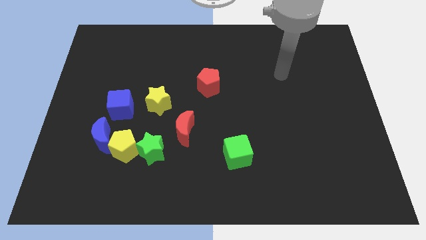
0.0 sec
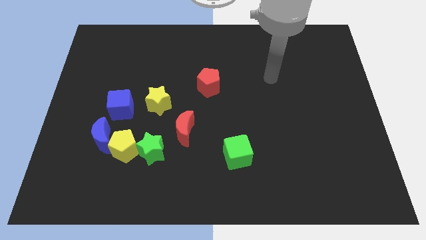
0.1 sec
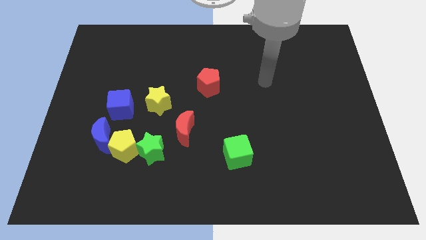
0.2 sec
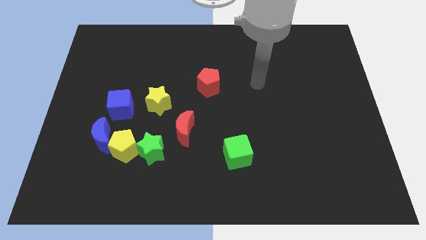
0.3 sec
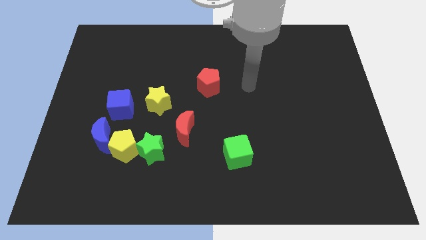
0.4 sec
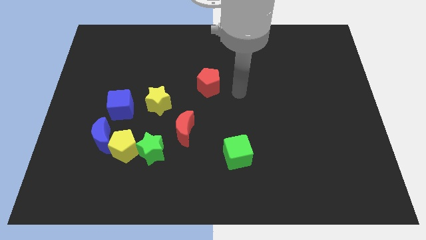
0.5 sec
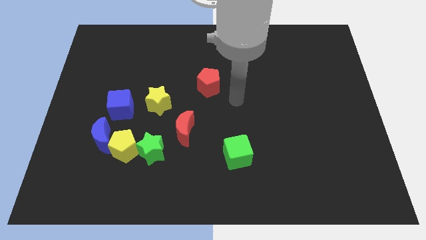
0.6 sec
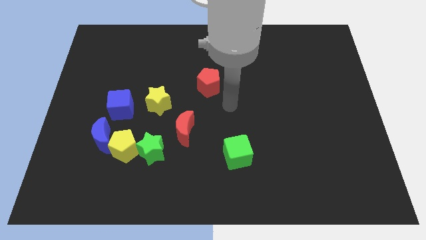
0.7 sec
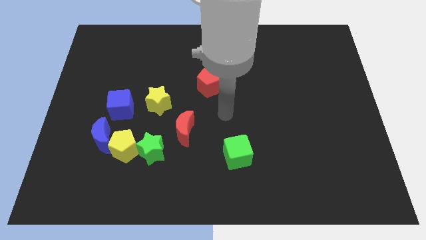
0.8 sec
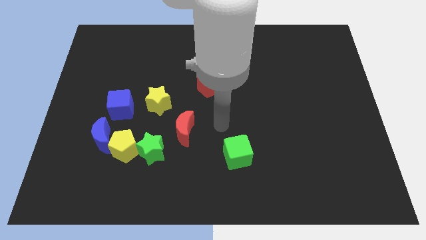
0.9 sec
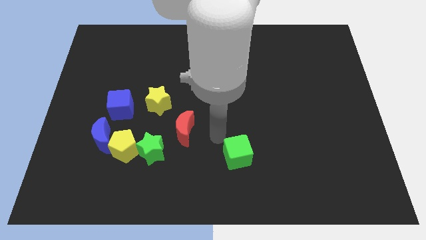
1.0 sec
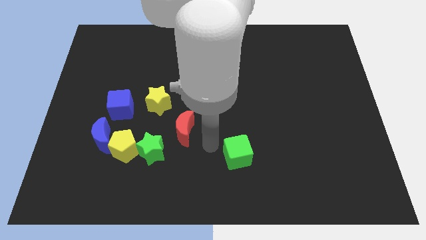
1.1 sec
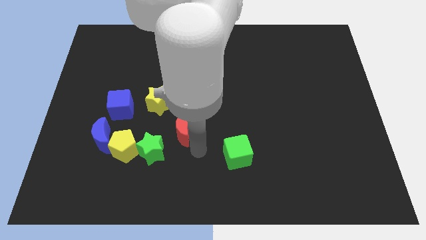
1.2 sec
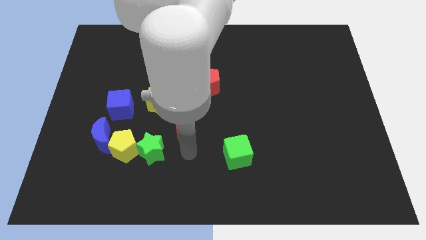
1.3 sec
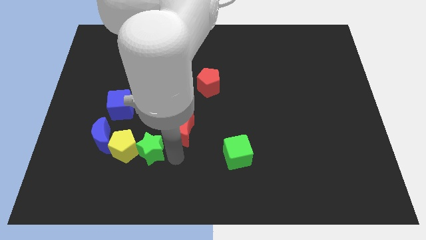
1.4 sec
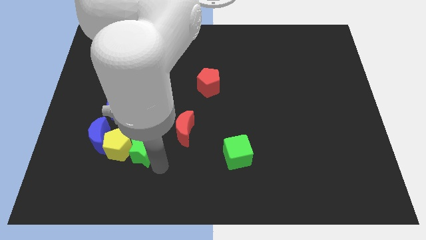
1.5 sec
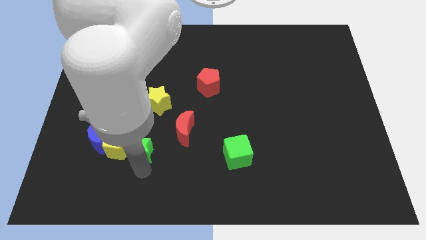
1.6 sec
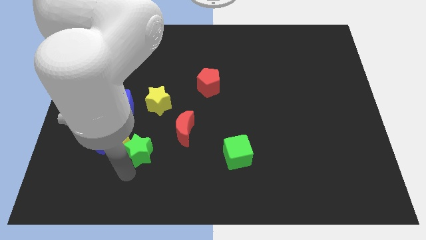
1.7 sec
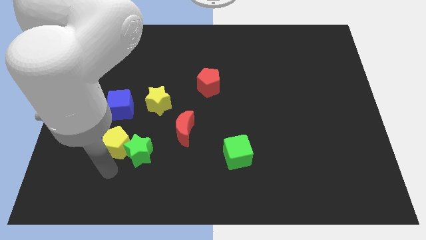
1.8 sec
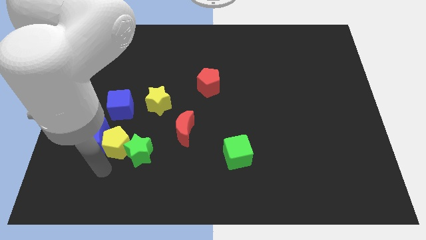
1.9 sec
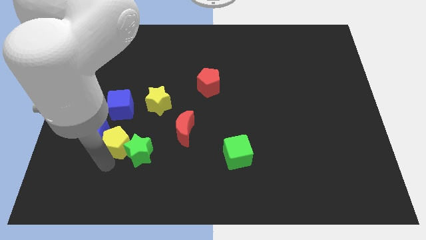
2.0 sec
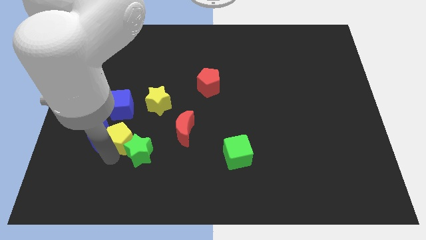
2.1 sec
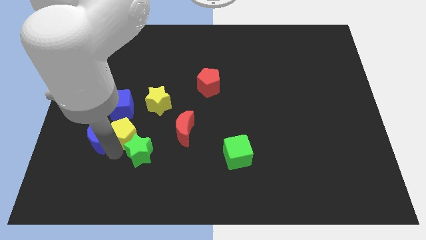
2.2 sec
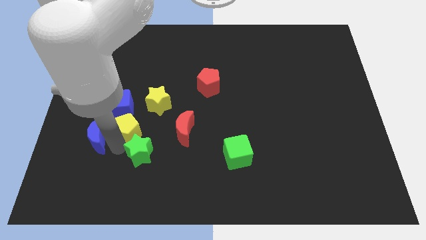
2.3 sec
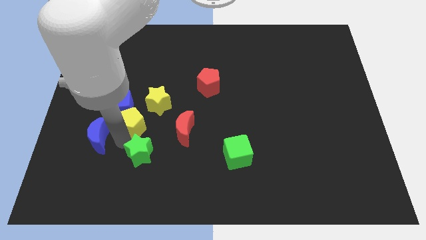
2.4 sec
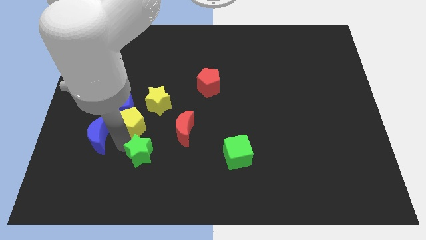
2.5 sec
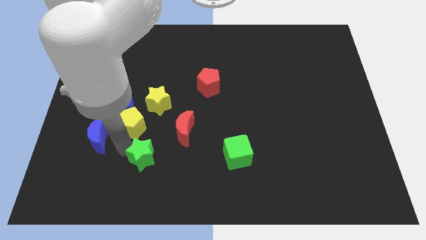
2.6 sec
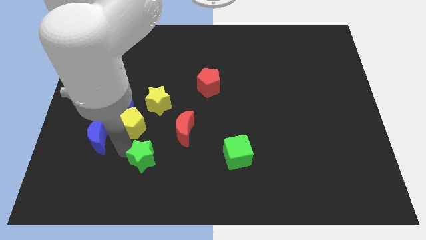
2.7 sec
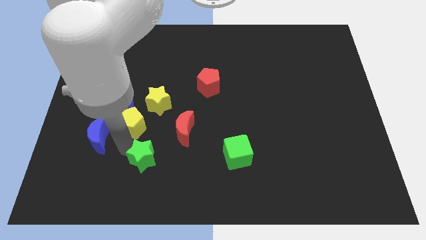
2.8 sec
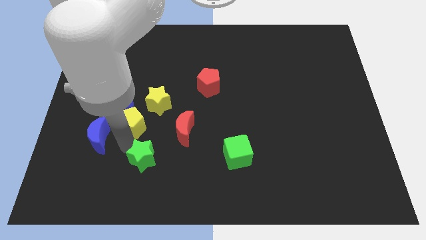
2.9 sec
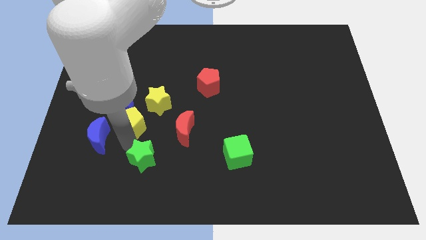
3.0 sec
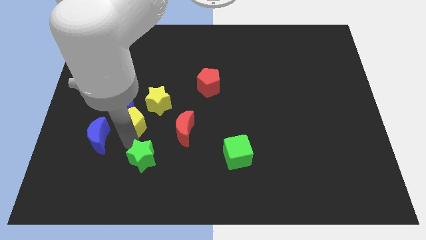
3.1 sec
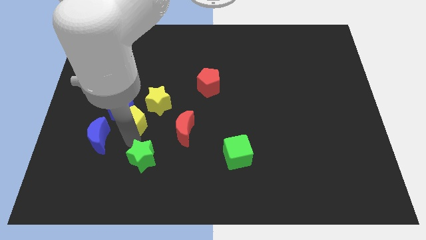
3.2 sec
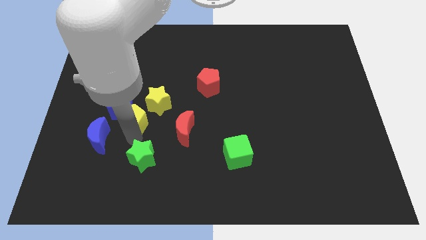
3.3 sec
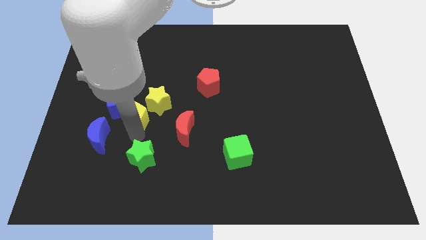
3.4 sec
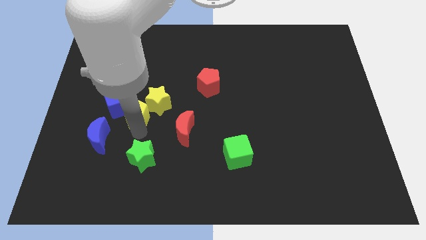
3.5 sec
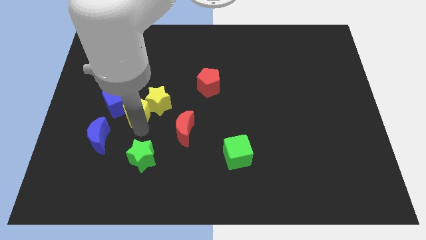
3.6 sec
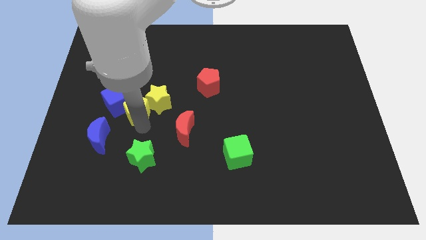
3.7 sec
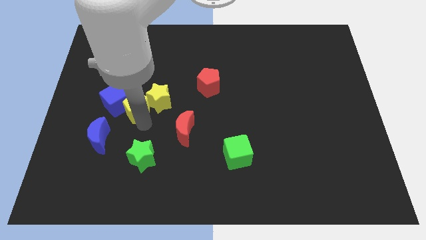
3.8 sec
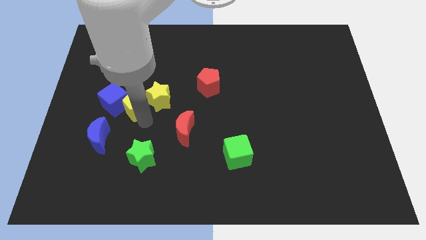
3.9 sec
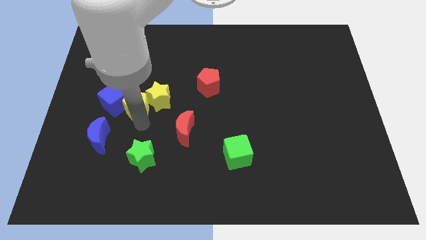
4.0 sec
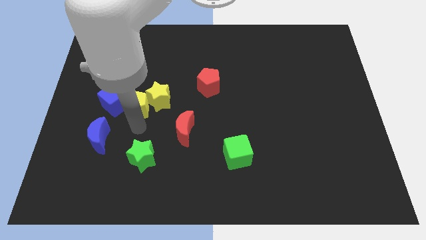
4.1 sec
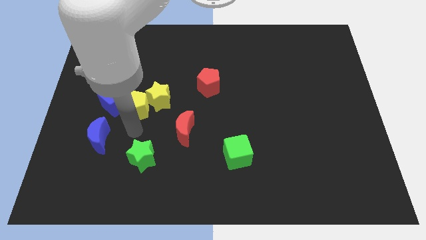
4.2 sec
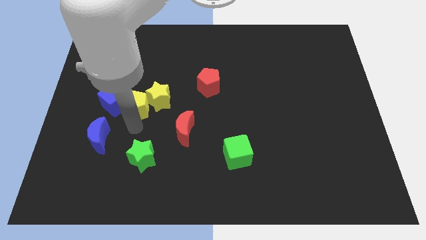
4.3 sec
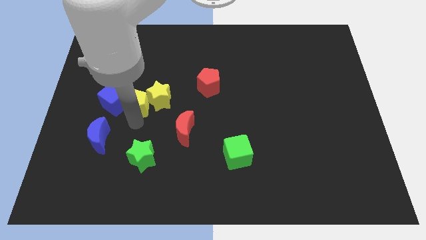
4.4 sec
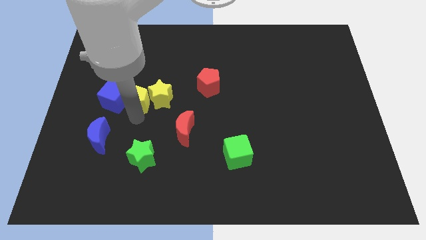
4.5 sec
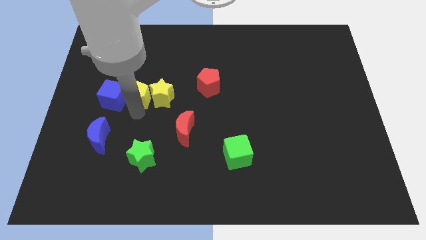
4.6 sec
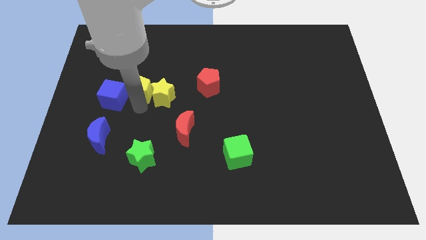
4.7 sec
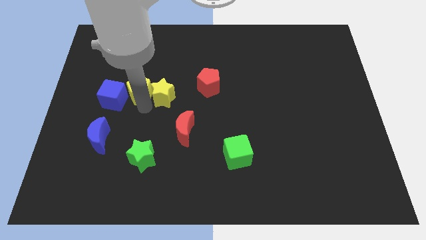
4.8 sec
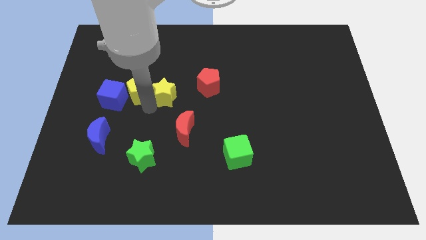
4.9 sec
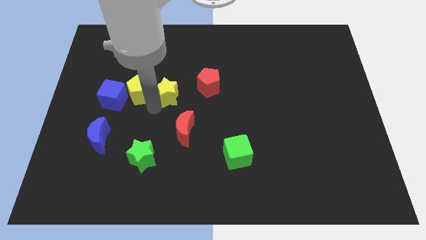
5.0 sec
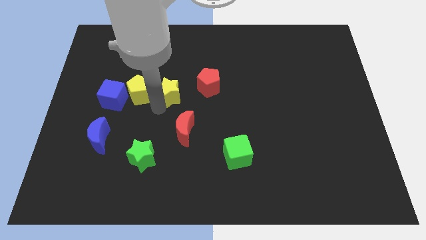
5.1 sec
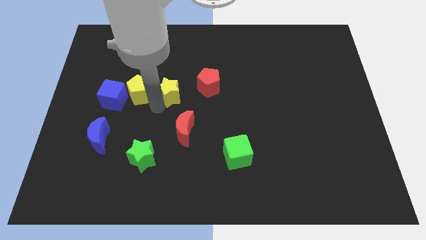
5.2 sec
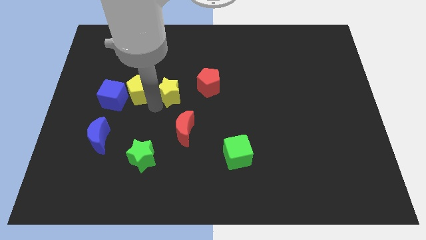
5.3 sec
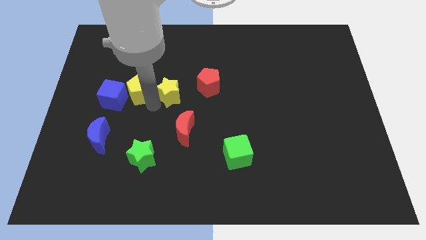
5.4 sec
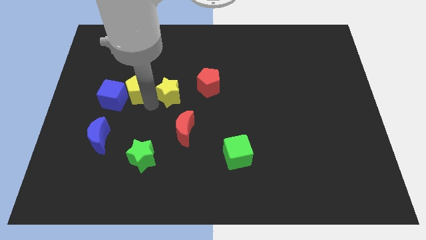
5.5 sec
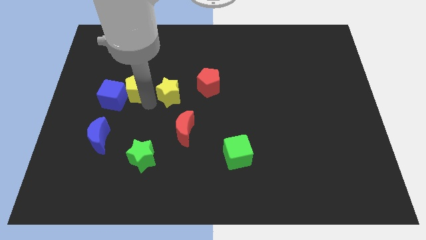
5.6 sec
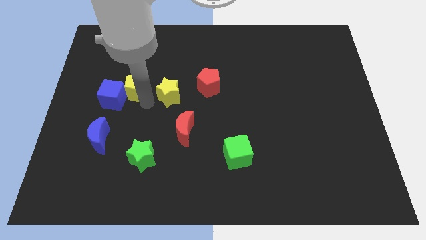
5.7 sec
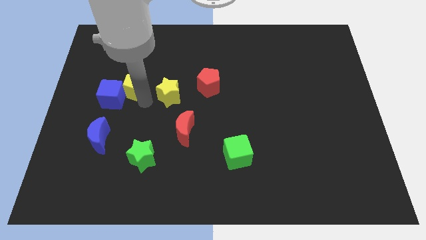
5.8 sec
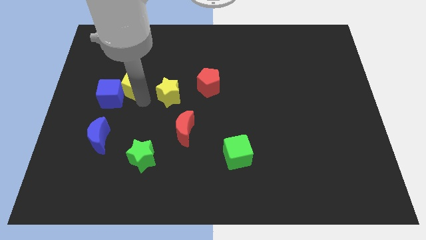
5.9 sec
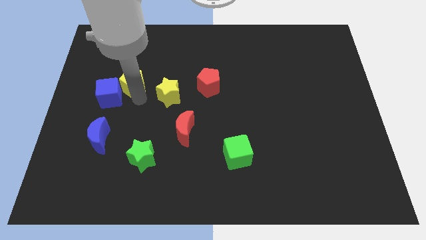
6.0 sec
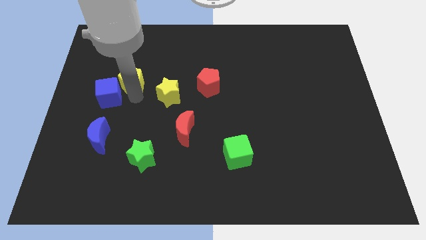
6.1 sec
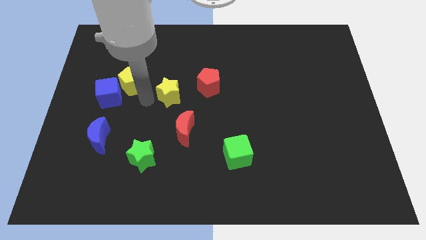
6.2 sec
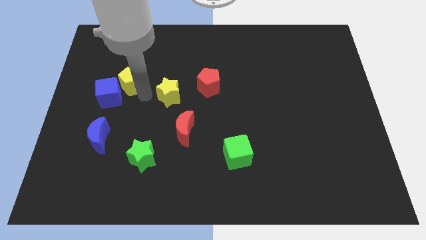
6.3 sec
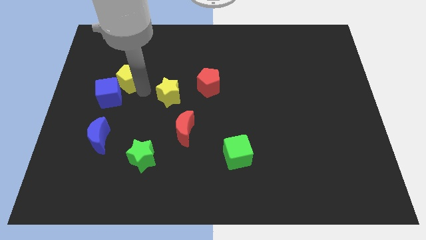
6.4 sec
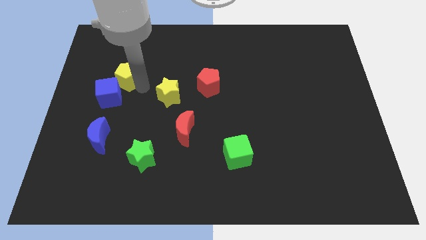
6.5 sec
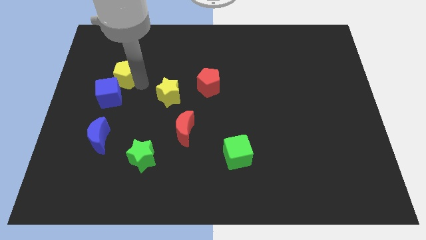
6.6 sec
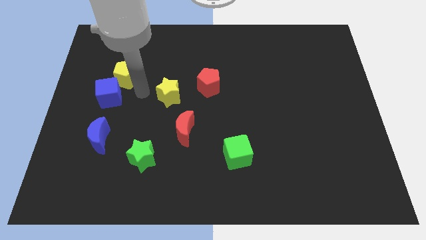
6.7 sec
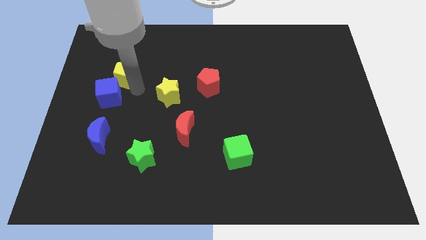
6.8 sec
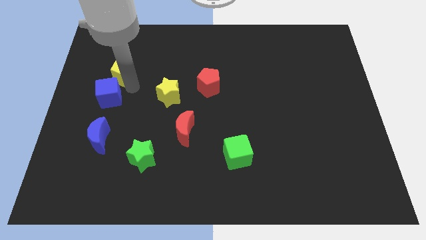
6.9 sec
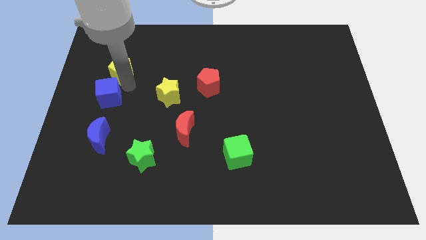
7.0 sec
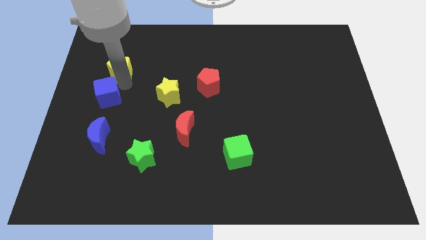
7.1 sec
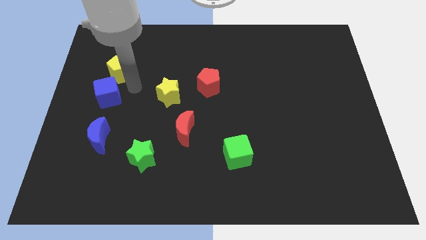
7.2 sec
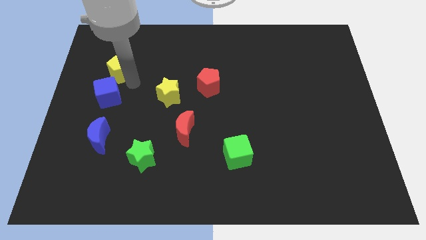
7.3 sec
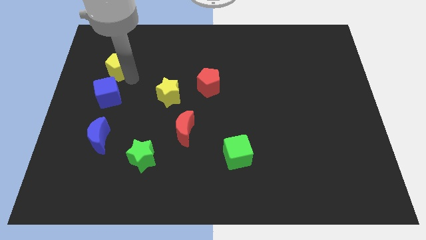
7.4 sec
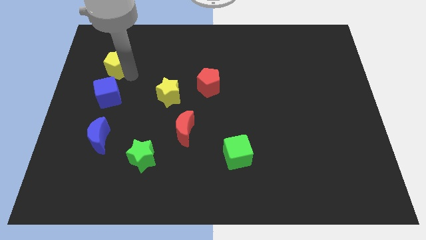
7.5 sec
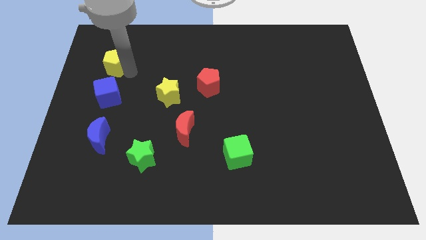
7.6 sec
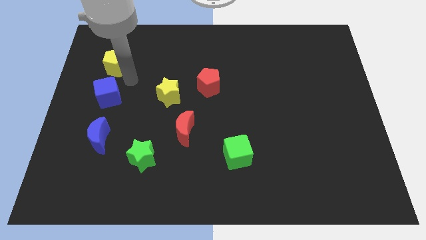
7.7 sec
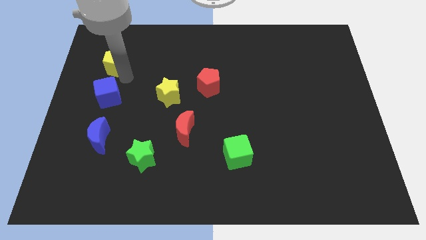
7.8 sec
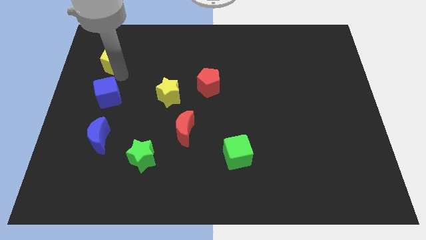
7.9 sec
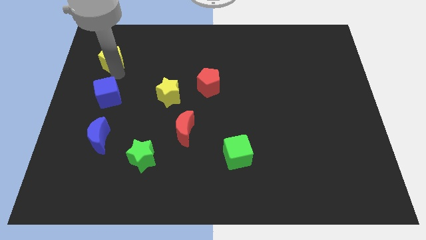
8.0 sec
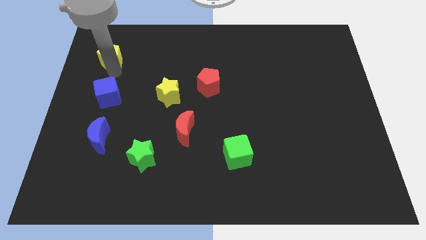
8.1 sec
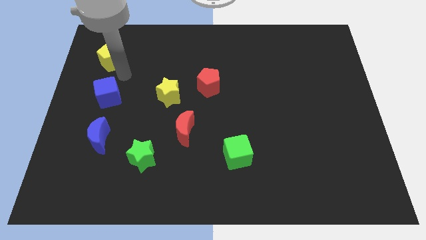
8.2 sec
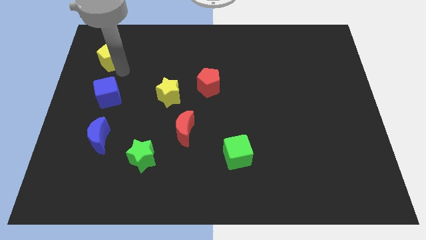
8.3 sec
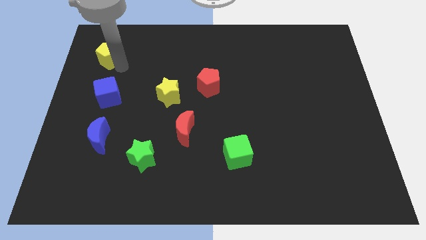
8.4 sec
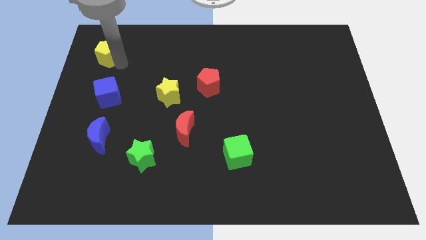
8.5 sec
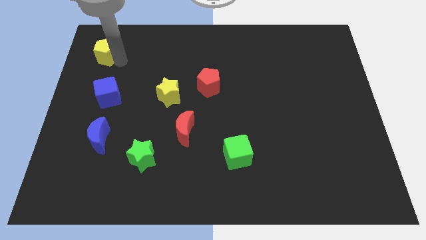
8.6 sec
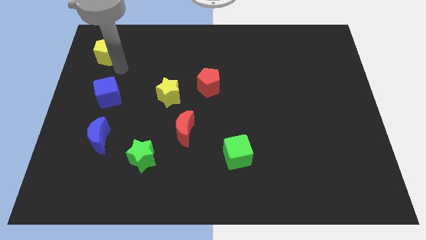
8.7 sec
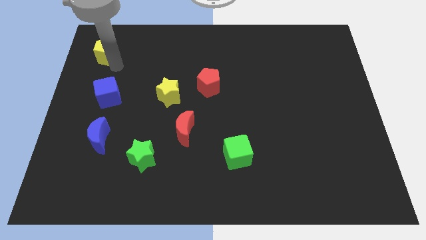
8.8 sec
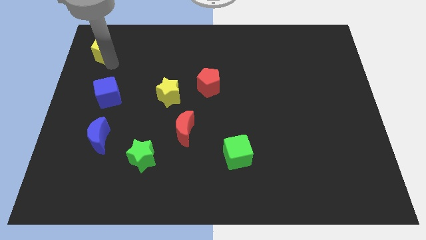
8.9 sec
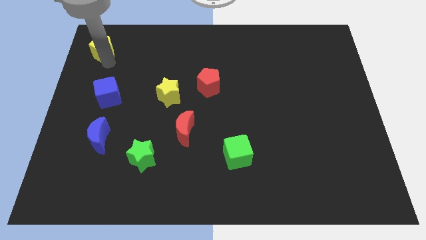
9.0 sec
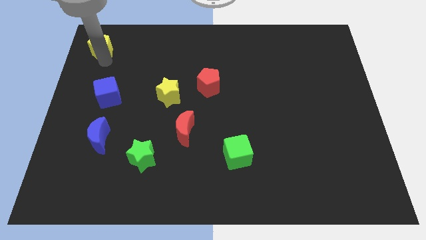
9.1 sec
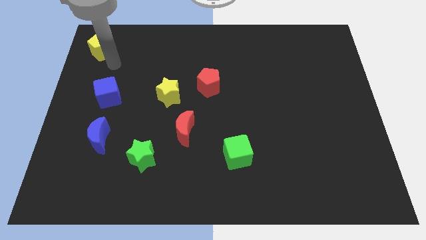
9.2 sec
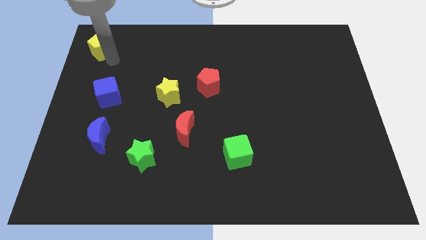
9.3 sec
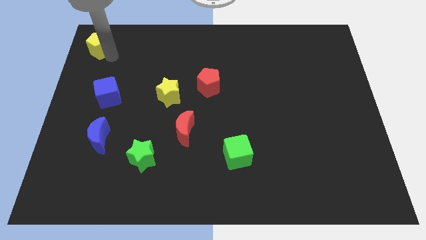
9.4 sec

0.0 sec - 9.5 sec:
push the yellow pentagon to the top left corner
